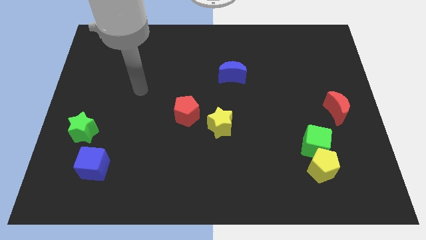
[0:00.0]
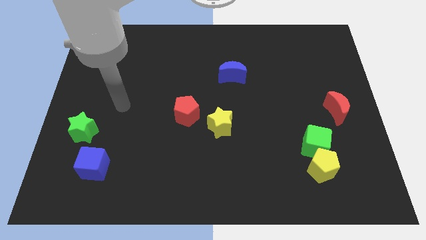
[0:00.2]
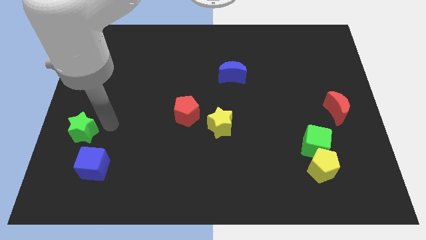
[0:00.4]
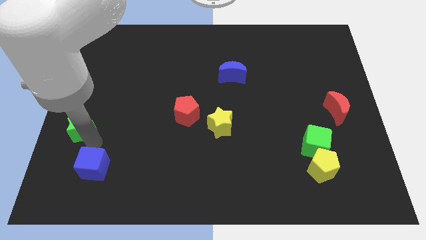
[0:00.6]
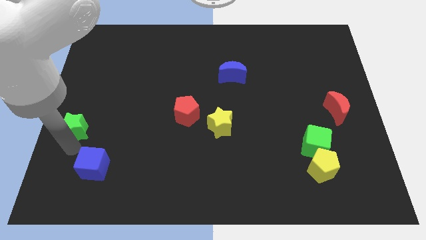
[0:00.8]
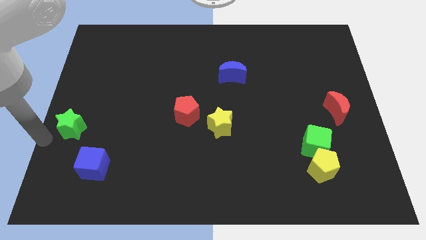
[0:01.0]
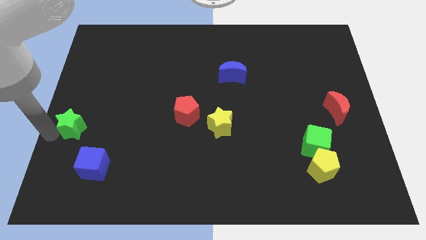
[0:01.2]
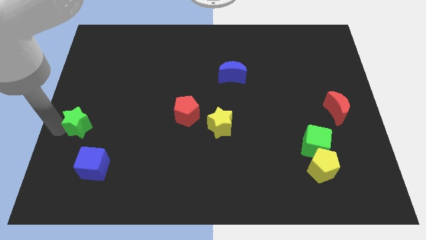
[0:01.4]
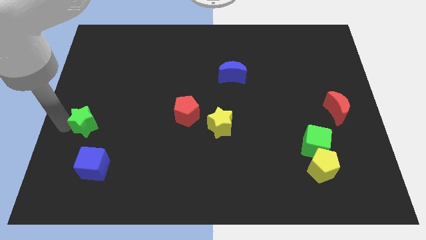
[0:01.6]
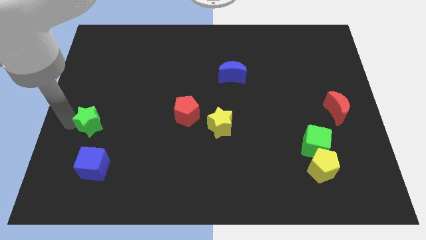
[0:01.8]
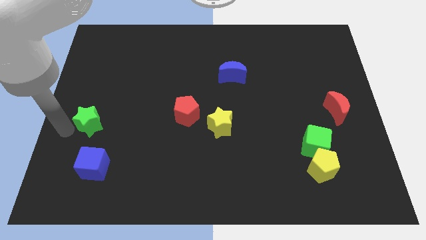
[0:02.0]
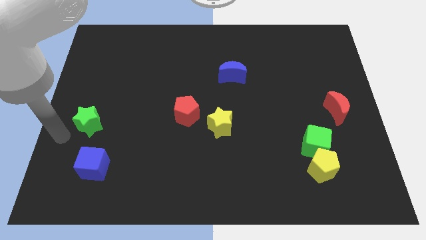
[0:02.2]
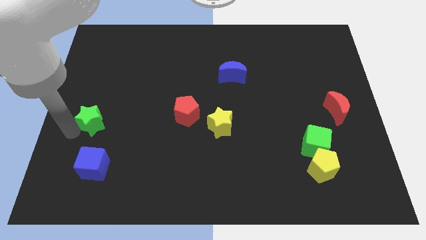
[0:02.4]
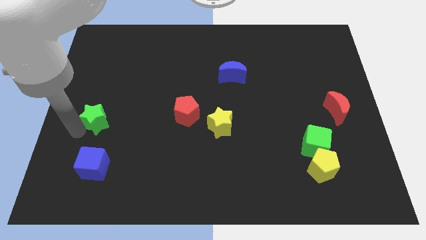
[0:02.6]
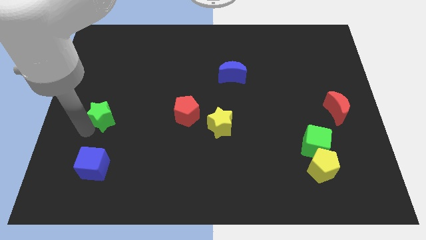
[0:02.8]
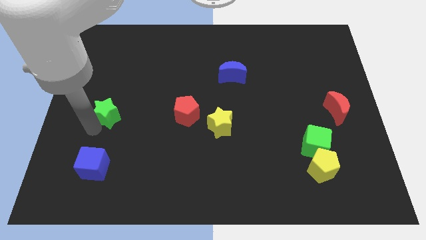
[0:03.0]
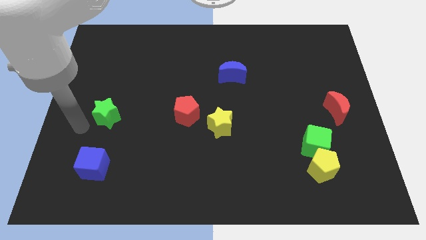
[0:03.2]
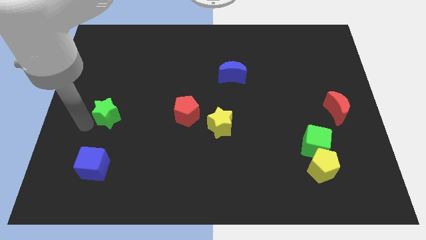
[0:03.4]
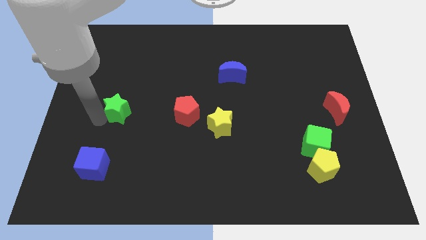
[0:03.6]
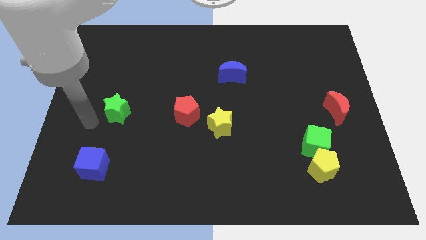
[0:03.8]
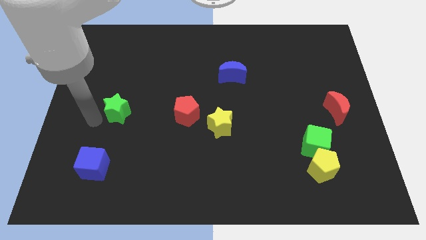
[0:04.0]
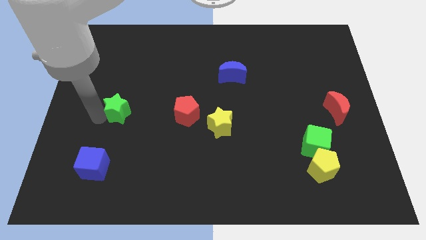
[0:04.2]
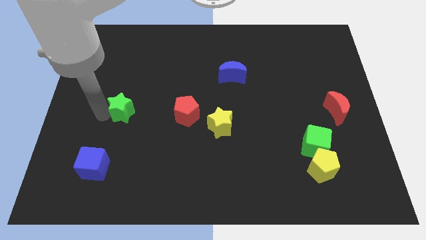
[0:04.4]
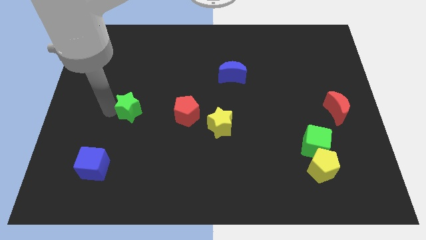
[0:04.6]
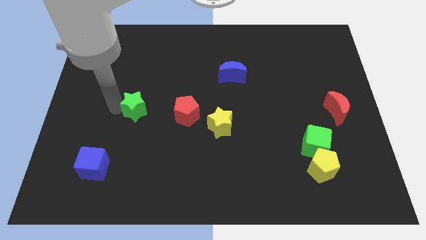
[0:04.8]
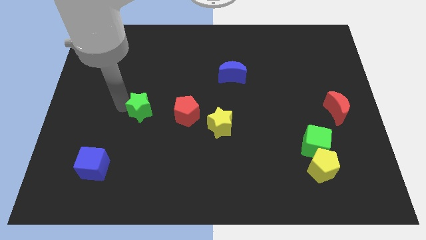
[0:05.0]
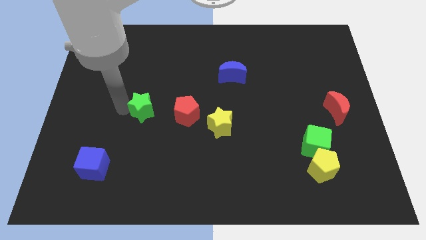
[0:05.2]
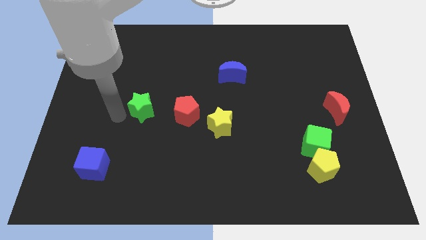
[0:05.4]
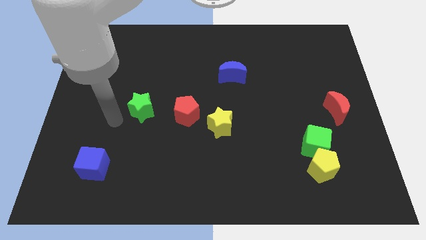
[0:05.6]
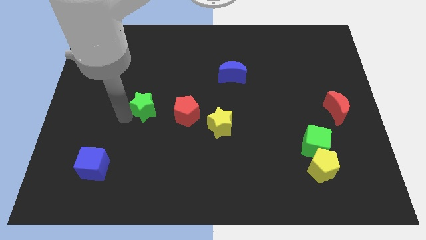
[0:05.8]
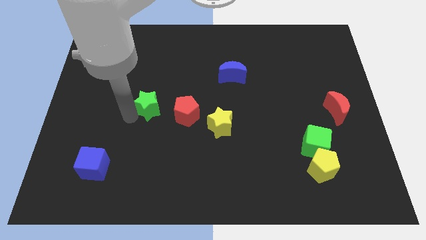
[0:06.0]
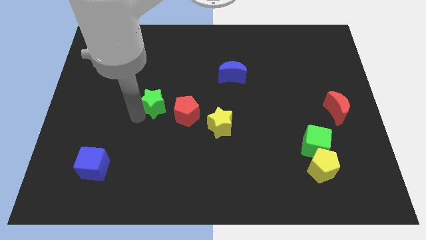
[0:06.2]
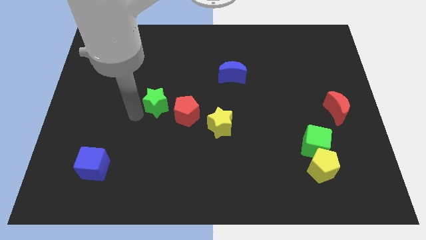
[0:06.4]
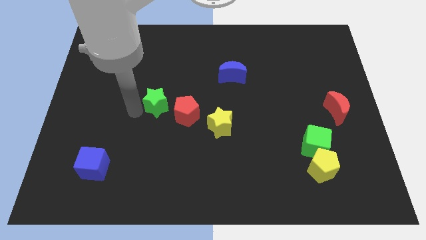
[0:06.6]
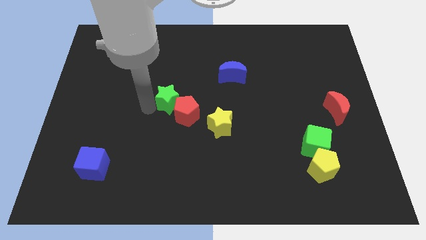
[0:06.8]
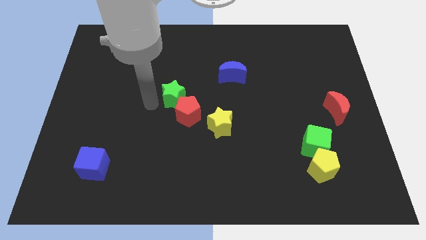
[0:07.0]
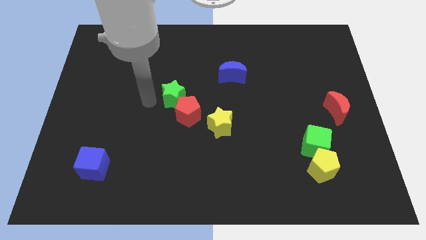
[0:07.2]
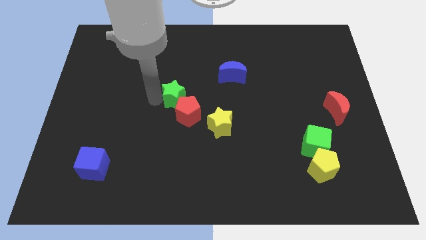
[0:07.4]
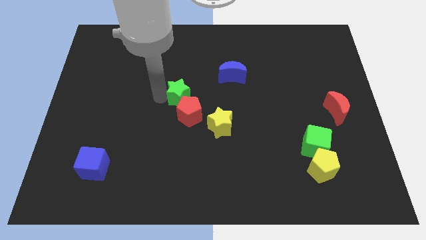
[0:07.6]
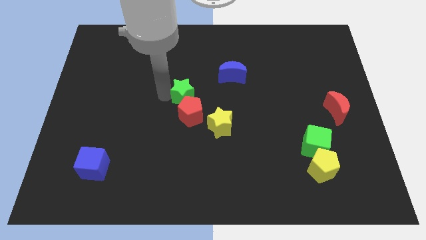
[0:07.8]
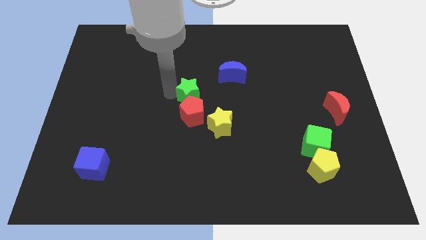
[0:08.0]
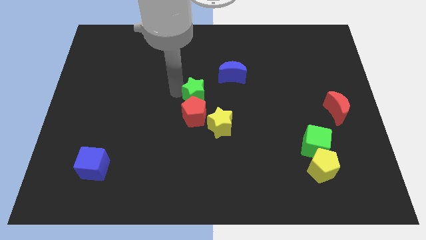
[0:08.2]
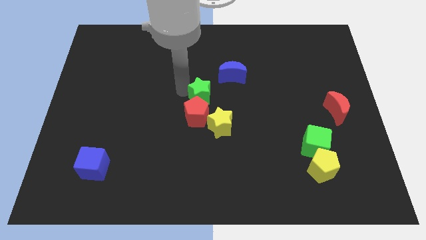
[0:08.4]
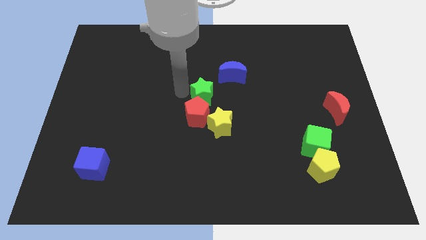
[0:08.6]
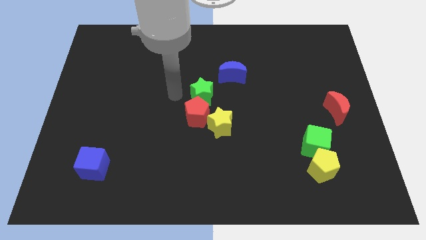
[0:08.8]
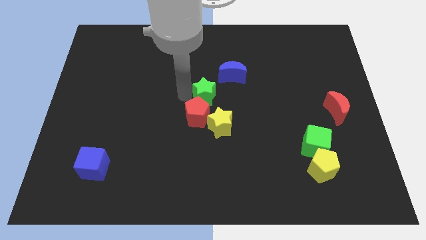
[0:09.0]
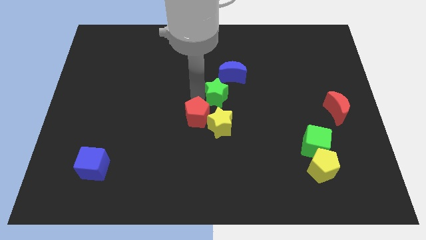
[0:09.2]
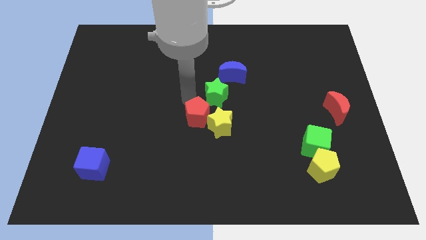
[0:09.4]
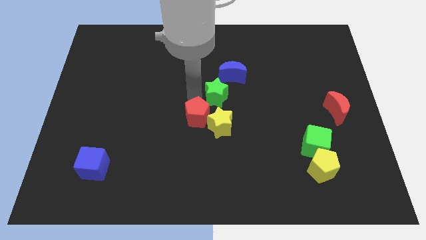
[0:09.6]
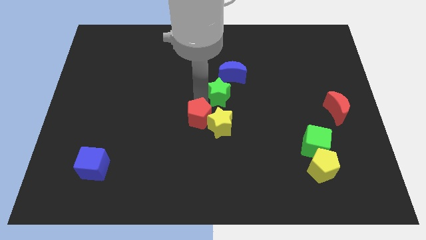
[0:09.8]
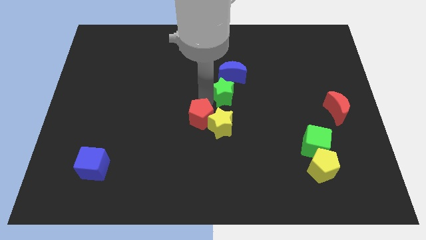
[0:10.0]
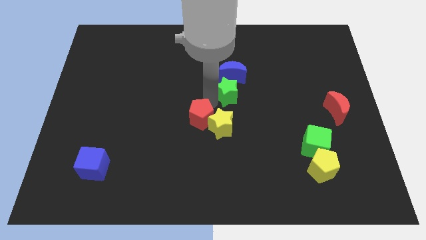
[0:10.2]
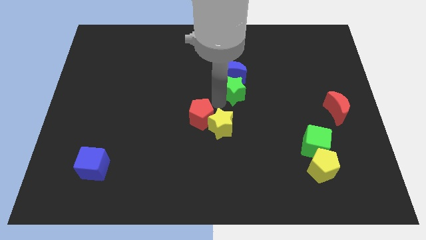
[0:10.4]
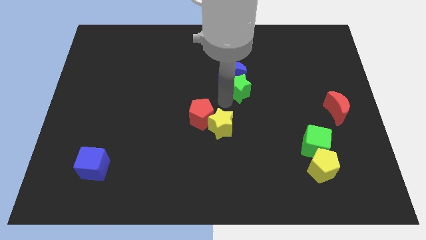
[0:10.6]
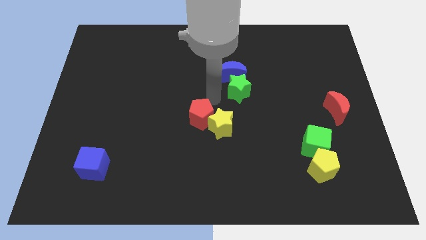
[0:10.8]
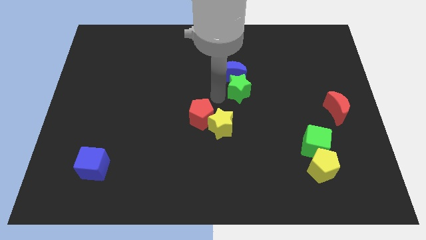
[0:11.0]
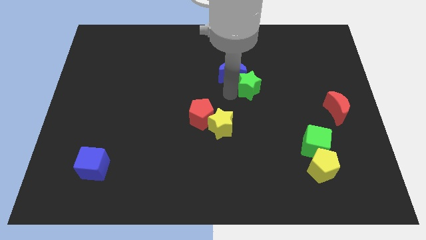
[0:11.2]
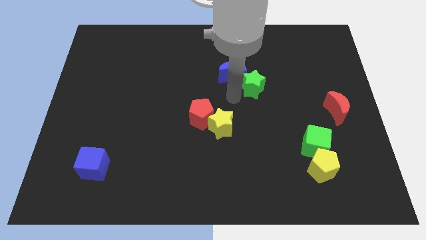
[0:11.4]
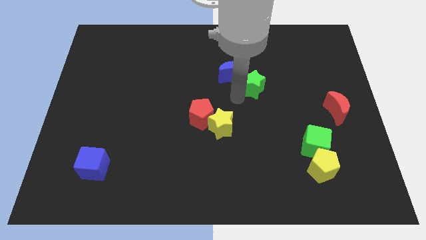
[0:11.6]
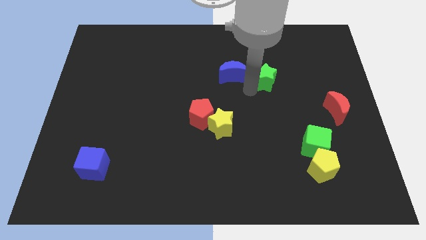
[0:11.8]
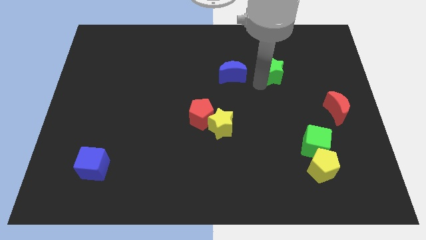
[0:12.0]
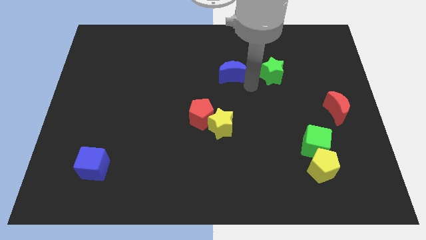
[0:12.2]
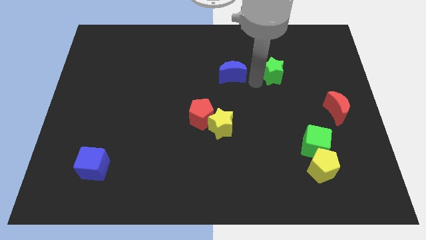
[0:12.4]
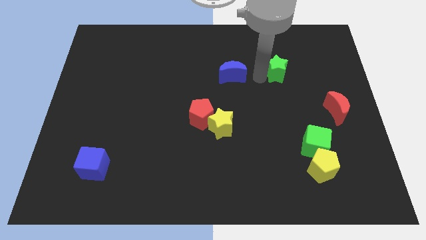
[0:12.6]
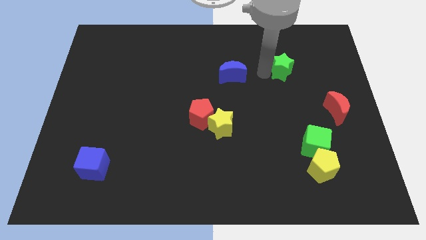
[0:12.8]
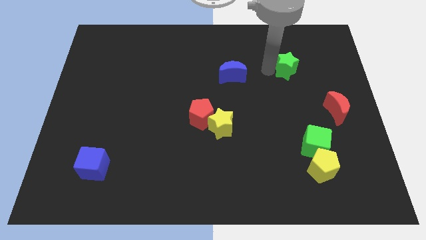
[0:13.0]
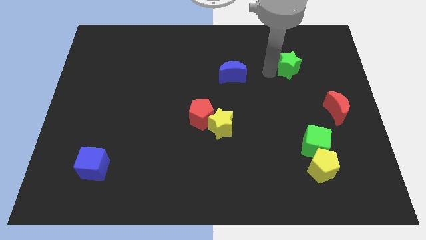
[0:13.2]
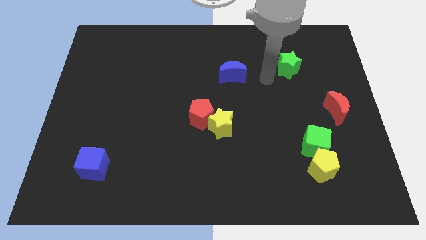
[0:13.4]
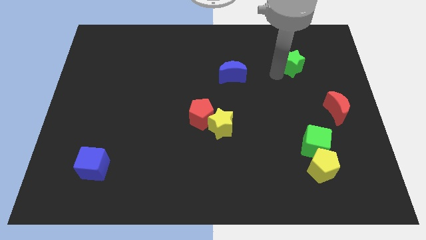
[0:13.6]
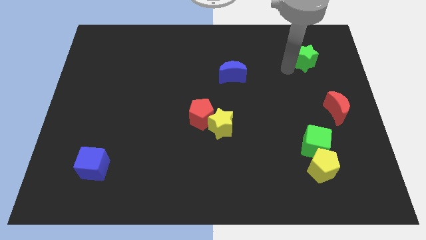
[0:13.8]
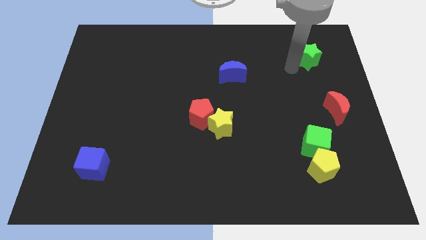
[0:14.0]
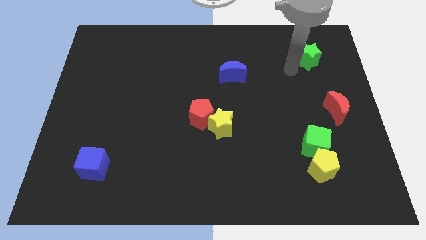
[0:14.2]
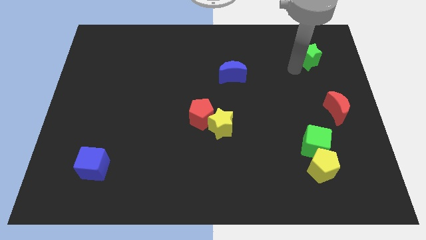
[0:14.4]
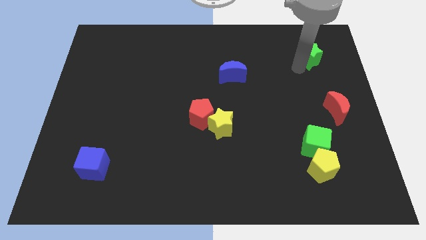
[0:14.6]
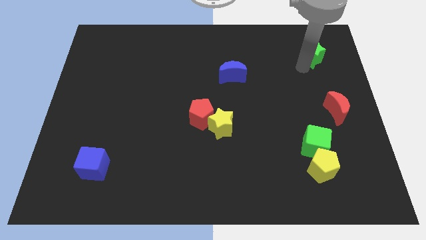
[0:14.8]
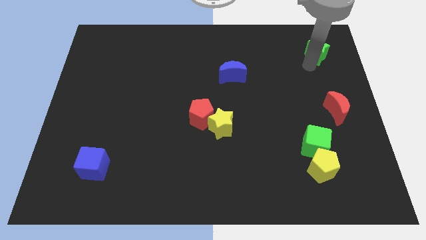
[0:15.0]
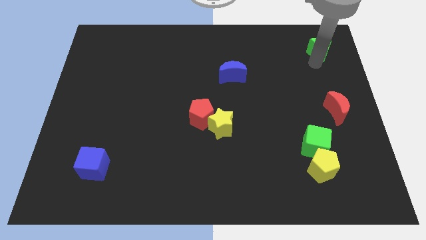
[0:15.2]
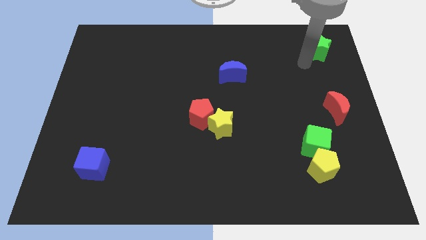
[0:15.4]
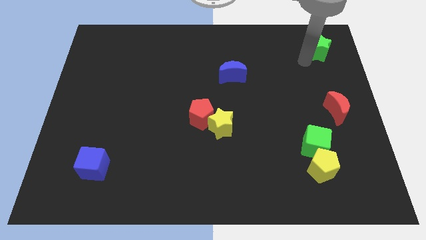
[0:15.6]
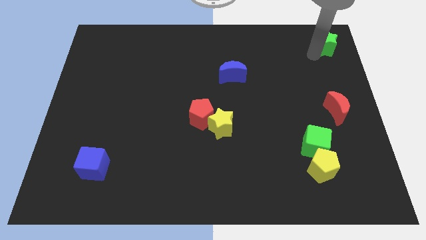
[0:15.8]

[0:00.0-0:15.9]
put the green star to the upper right corner
